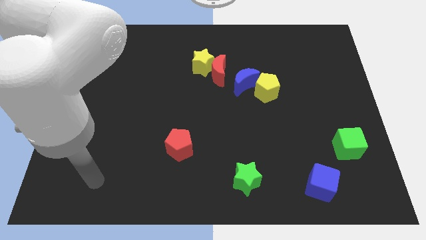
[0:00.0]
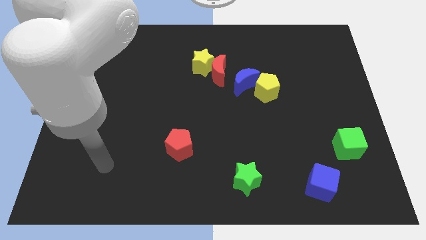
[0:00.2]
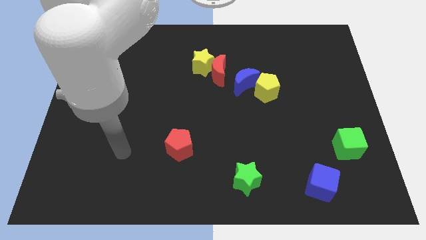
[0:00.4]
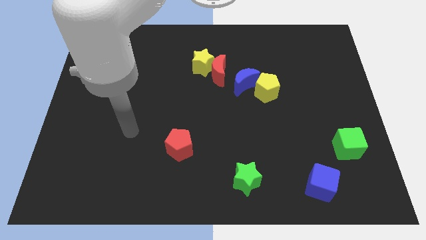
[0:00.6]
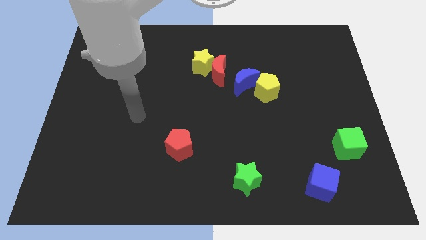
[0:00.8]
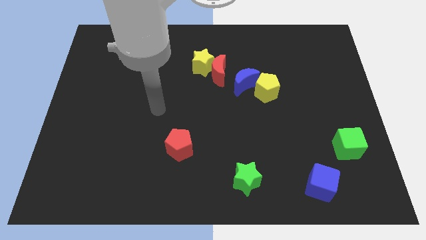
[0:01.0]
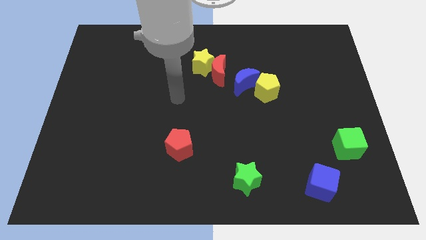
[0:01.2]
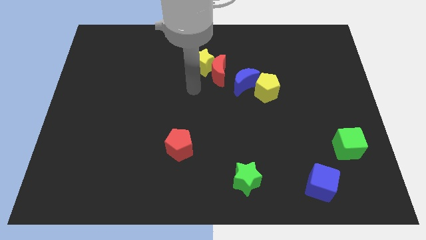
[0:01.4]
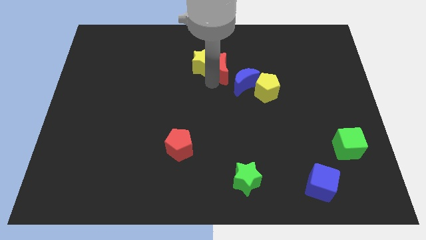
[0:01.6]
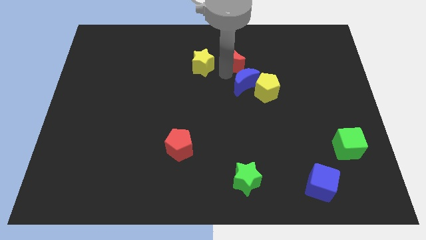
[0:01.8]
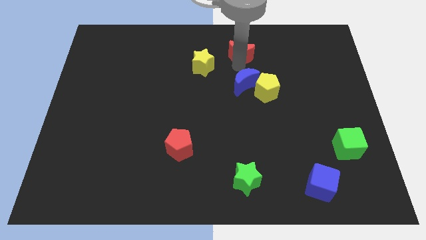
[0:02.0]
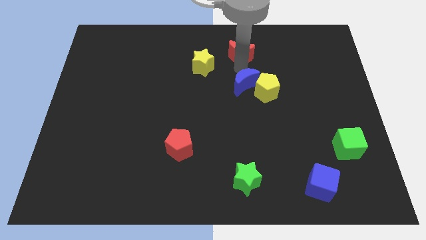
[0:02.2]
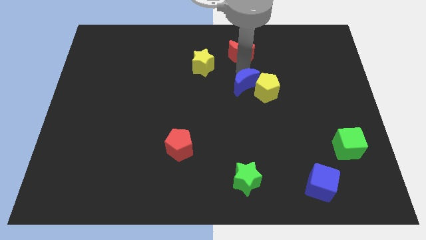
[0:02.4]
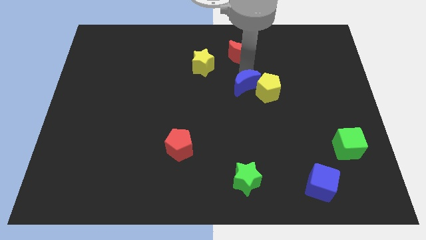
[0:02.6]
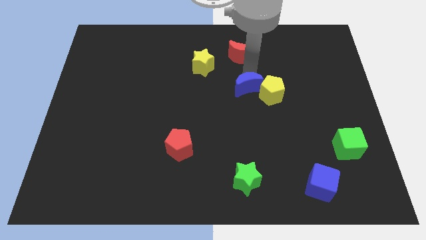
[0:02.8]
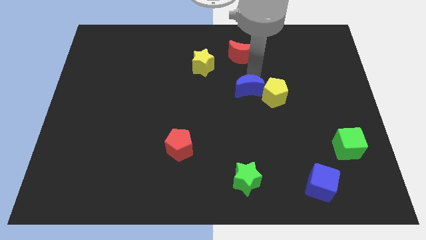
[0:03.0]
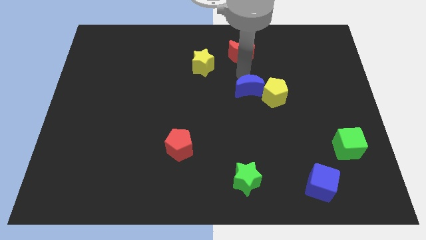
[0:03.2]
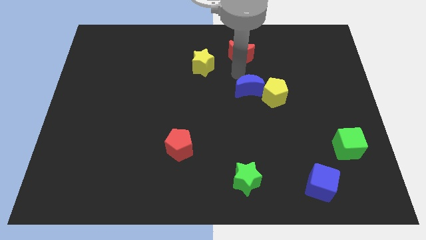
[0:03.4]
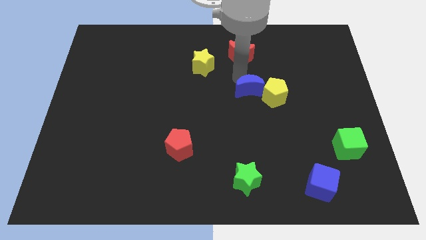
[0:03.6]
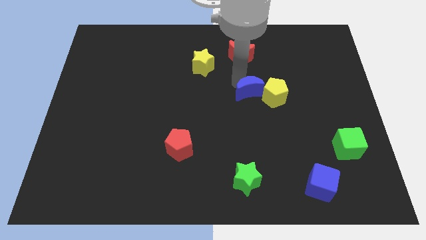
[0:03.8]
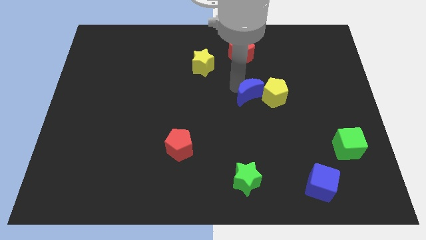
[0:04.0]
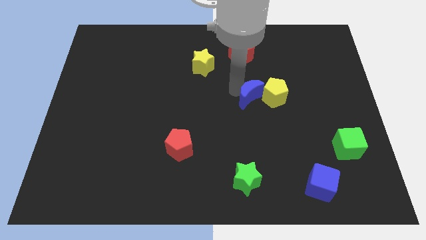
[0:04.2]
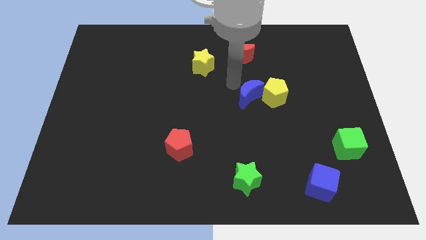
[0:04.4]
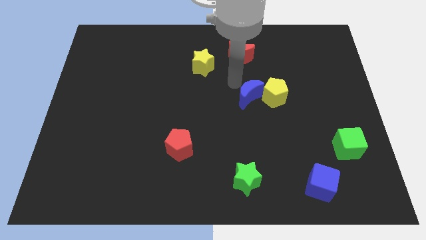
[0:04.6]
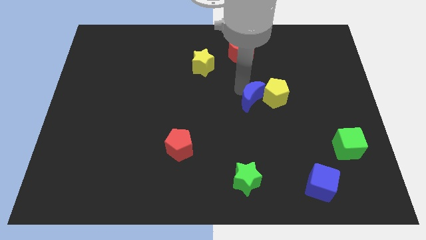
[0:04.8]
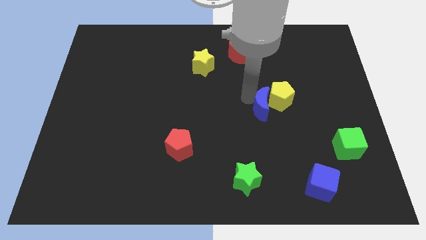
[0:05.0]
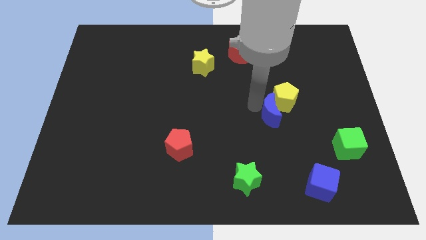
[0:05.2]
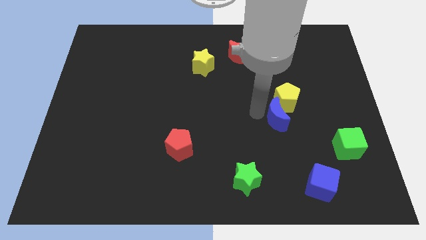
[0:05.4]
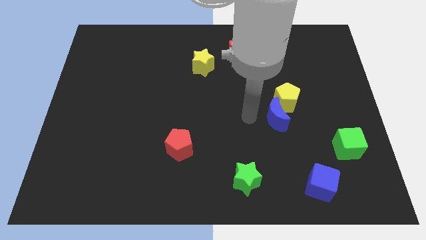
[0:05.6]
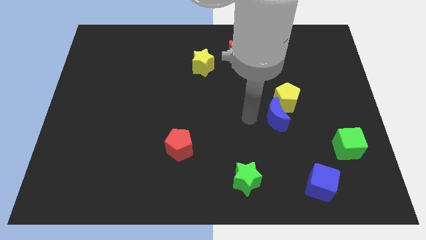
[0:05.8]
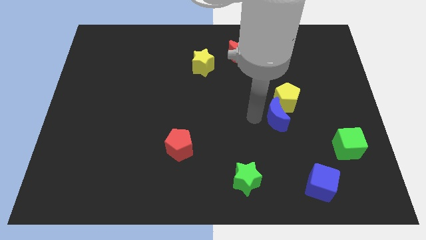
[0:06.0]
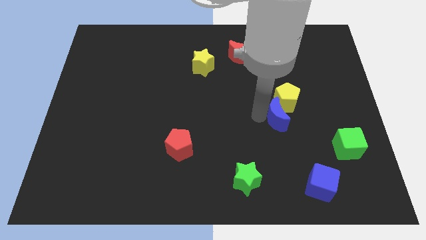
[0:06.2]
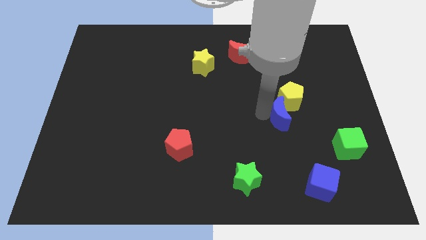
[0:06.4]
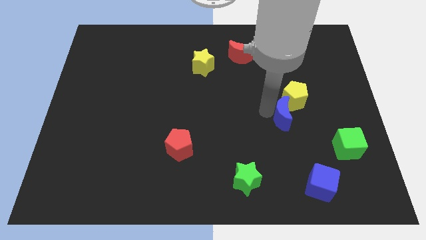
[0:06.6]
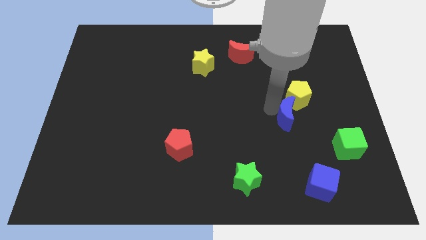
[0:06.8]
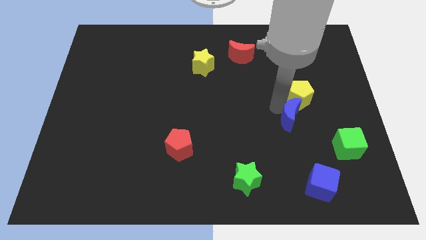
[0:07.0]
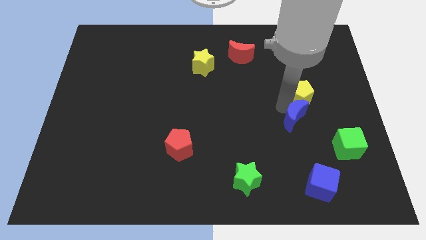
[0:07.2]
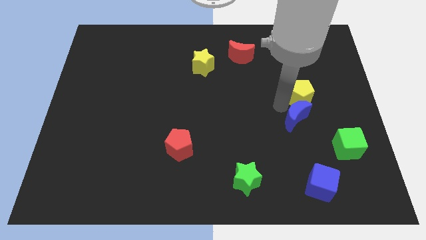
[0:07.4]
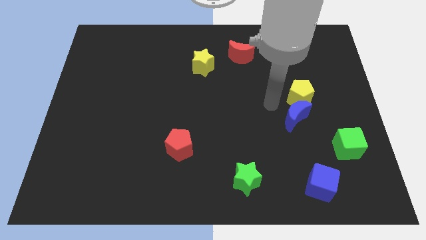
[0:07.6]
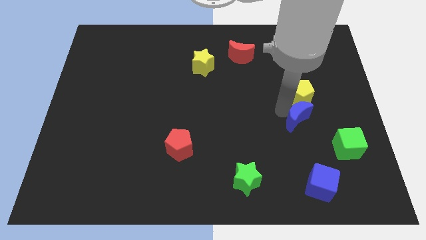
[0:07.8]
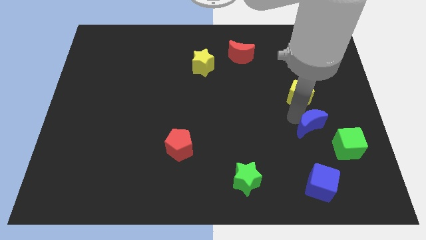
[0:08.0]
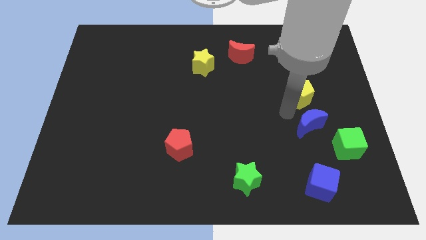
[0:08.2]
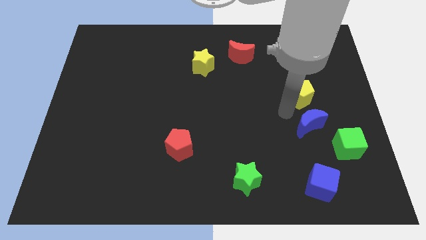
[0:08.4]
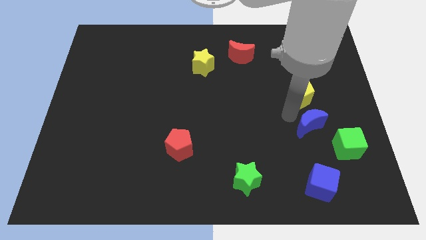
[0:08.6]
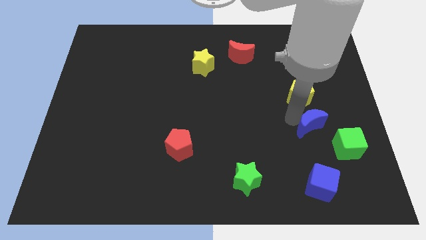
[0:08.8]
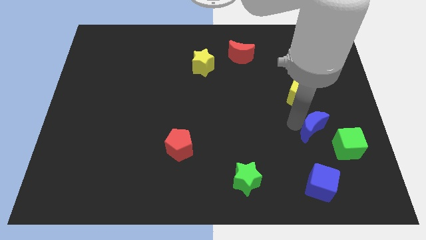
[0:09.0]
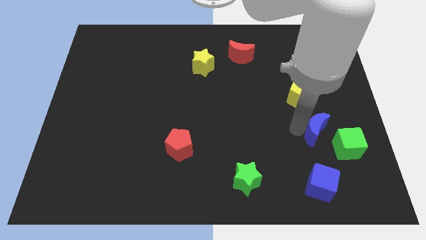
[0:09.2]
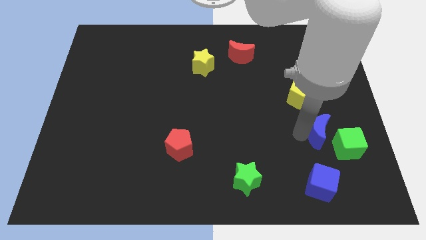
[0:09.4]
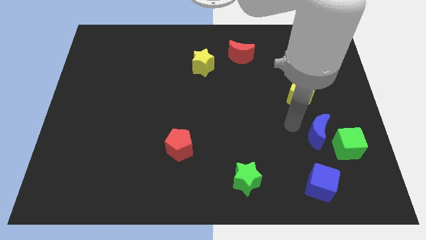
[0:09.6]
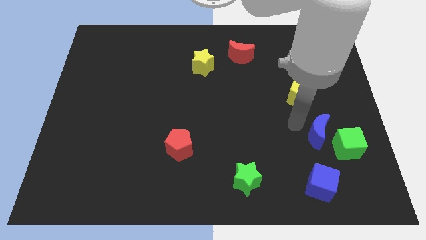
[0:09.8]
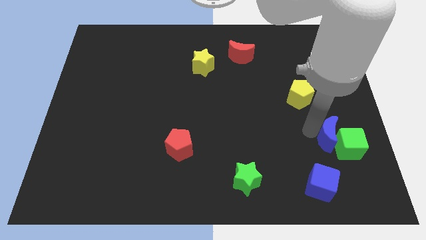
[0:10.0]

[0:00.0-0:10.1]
put the blue moon next to the green cube

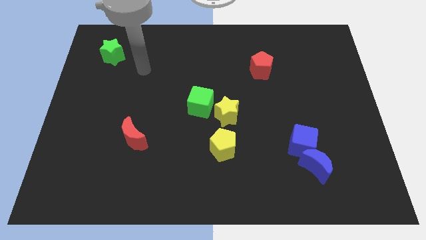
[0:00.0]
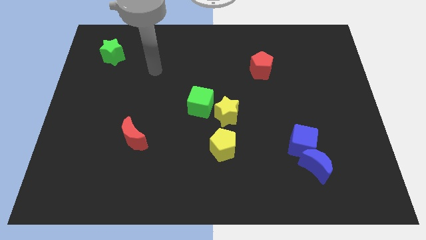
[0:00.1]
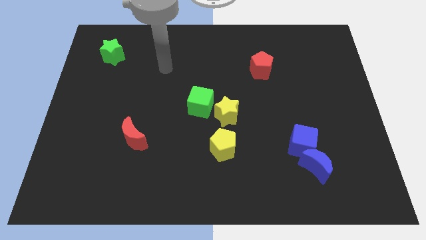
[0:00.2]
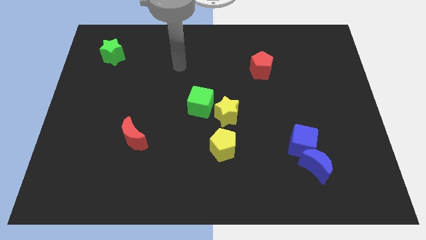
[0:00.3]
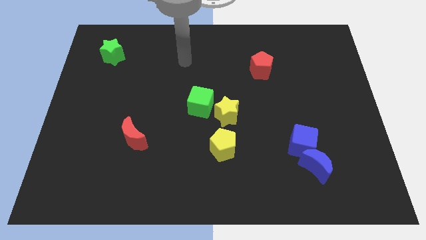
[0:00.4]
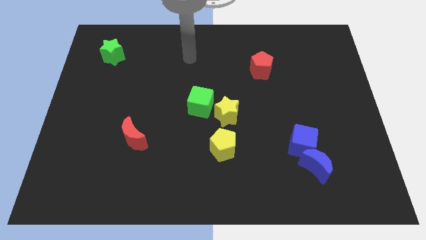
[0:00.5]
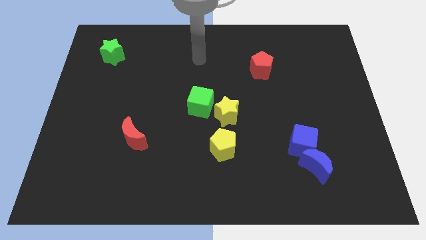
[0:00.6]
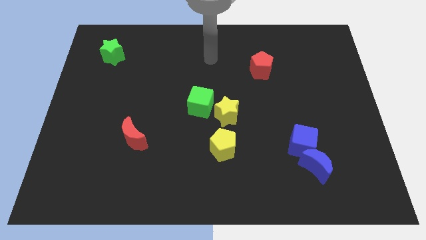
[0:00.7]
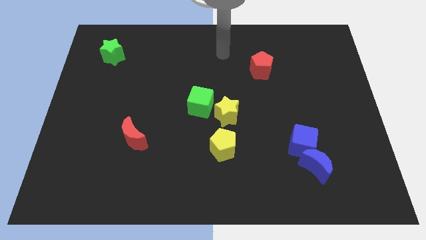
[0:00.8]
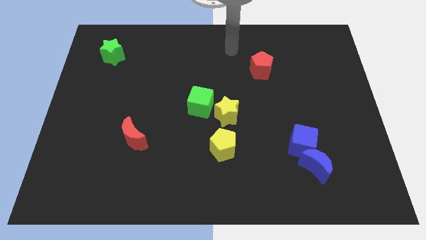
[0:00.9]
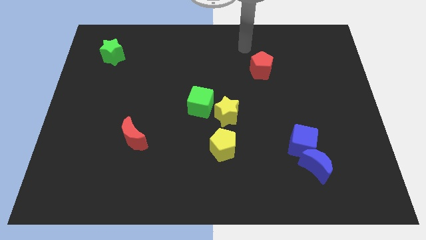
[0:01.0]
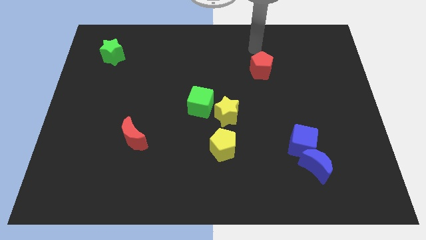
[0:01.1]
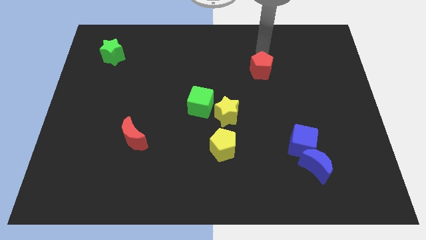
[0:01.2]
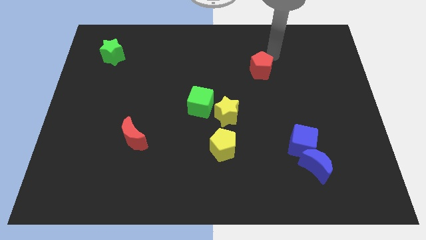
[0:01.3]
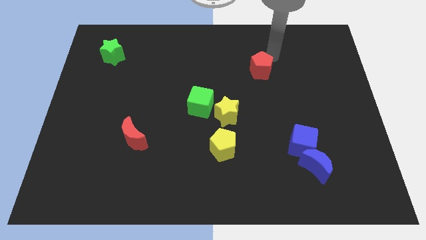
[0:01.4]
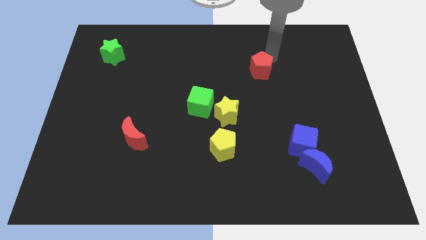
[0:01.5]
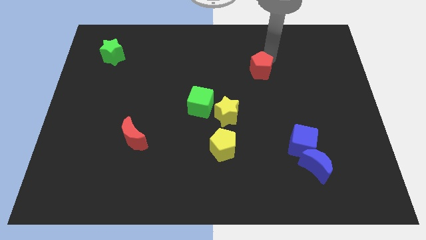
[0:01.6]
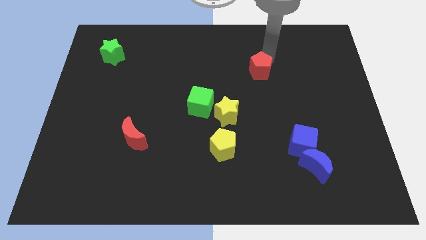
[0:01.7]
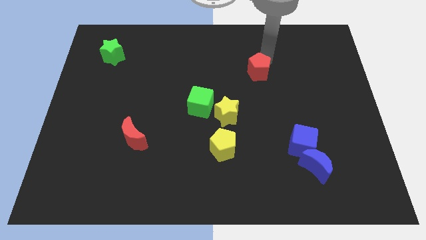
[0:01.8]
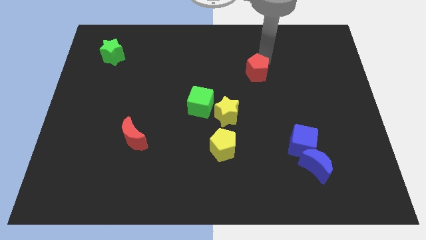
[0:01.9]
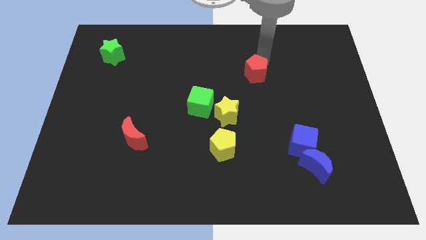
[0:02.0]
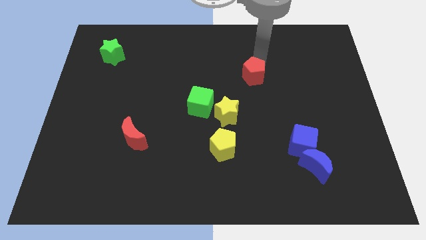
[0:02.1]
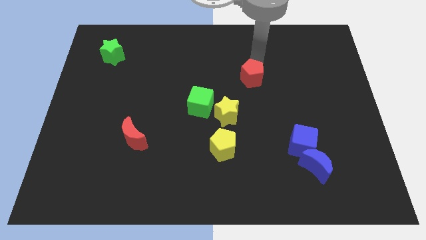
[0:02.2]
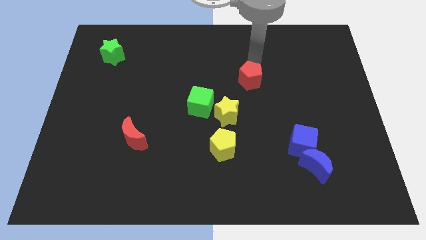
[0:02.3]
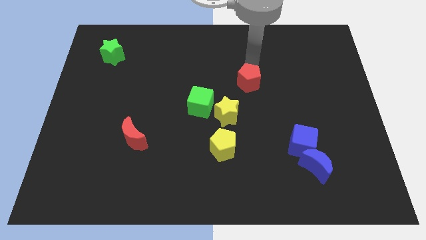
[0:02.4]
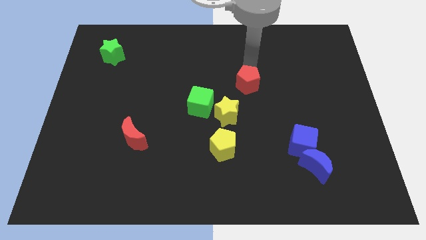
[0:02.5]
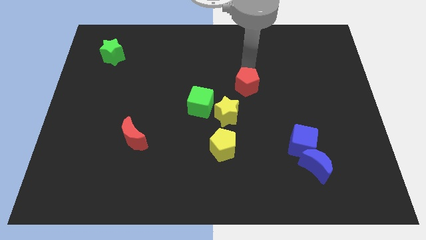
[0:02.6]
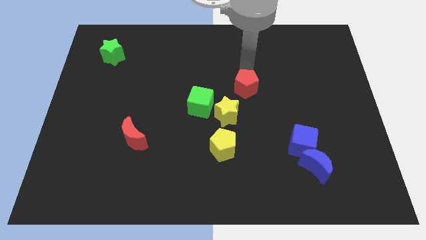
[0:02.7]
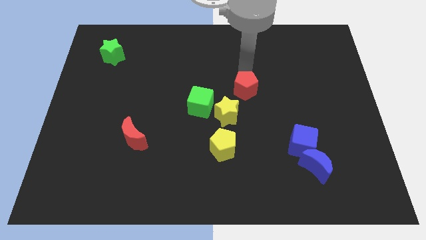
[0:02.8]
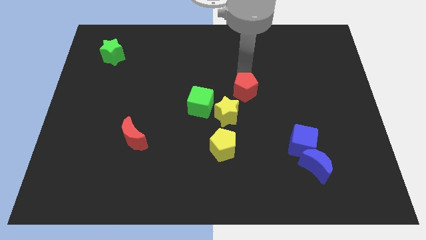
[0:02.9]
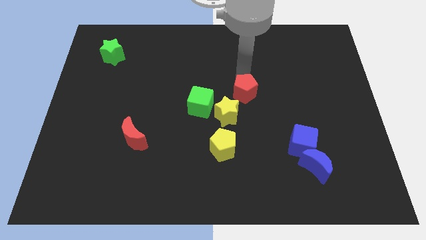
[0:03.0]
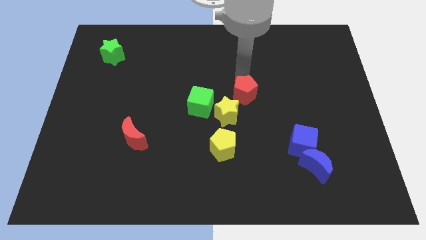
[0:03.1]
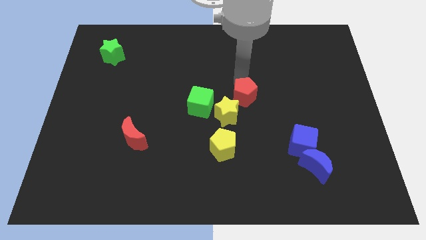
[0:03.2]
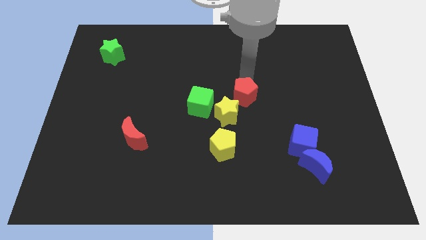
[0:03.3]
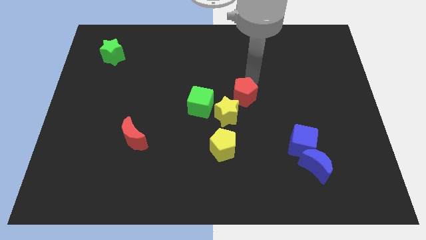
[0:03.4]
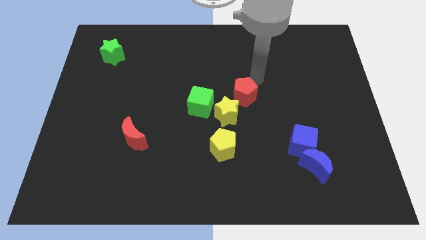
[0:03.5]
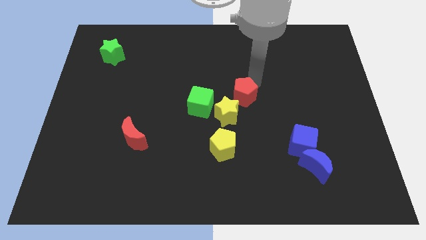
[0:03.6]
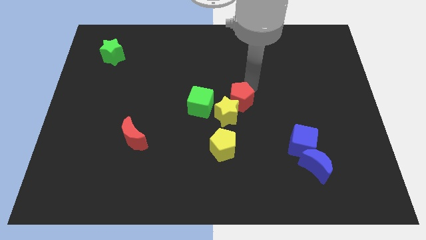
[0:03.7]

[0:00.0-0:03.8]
move the red pentagon close to the yellow star
